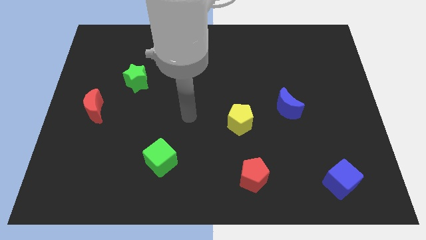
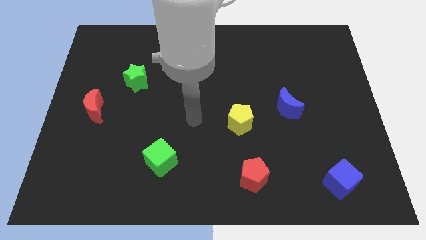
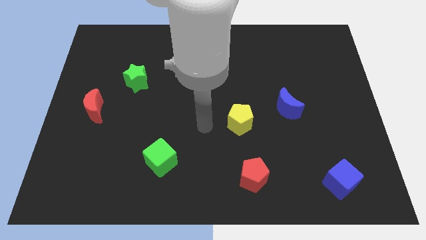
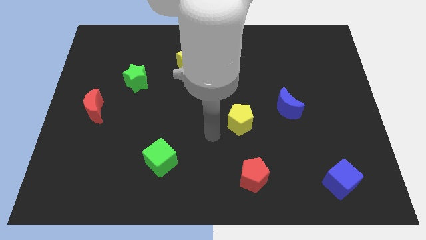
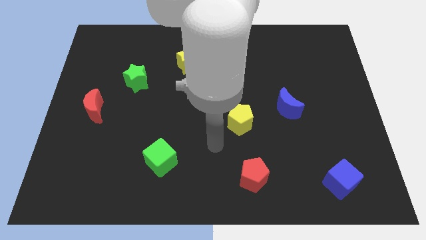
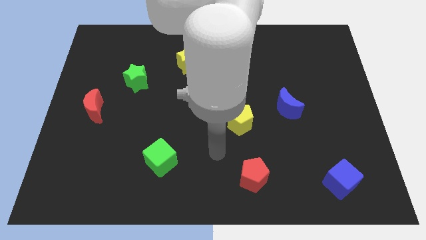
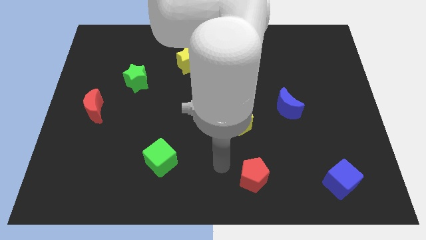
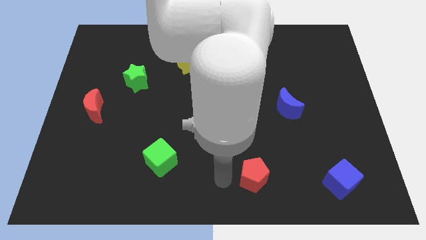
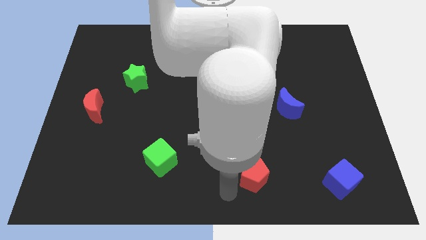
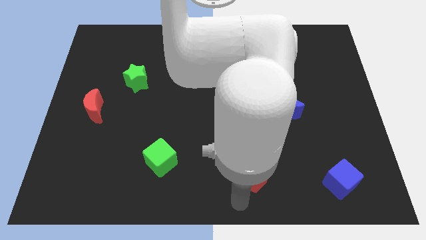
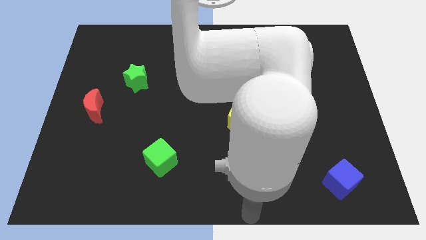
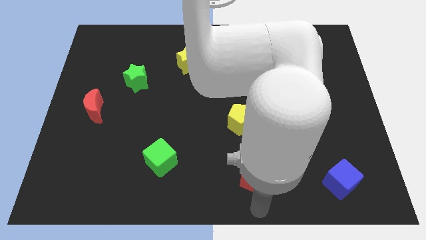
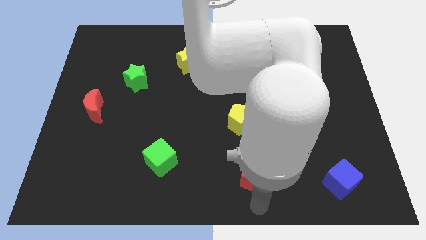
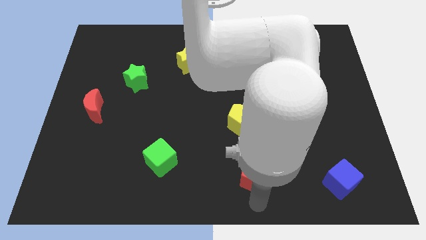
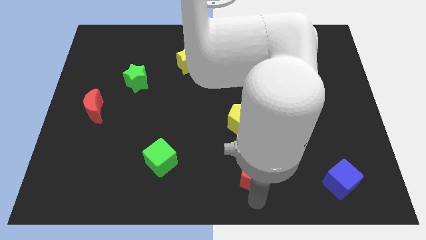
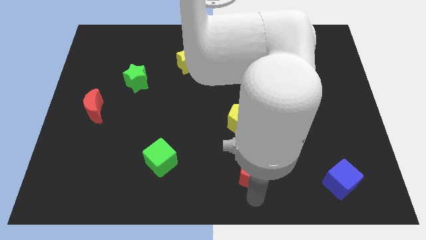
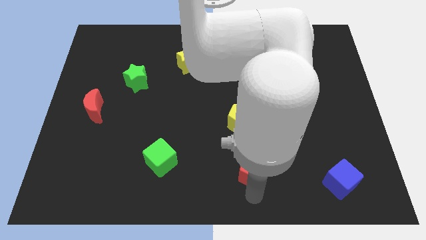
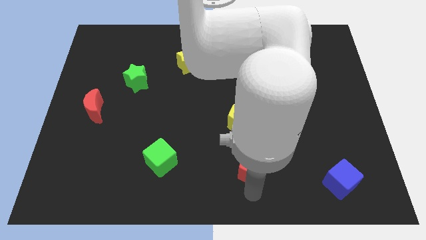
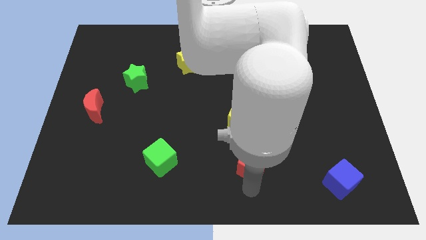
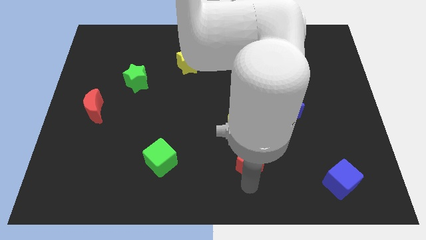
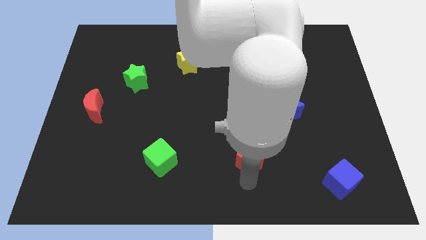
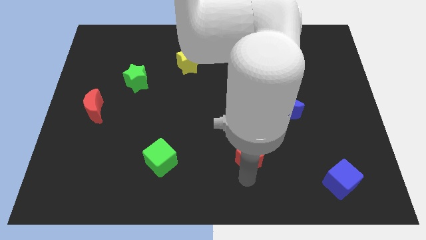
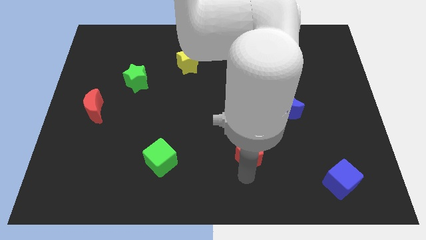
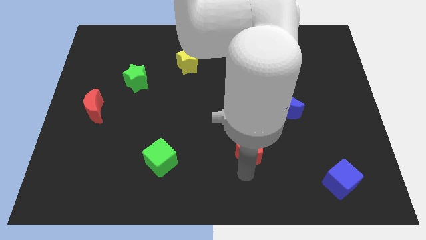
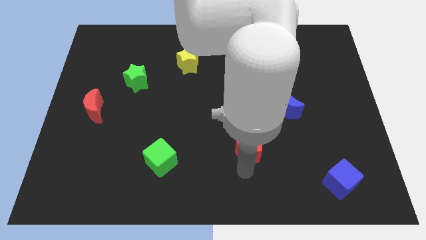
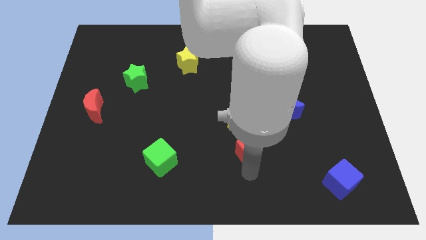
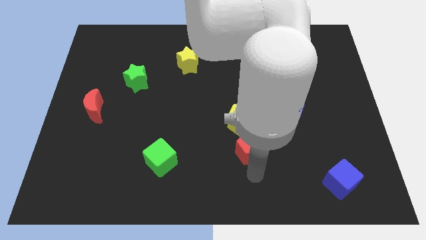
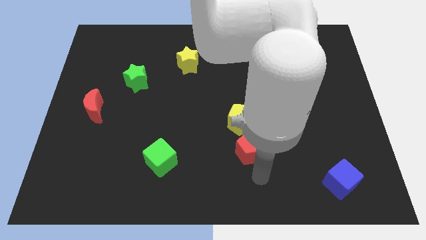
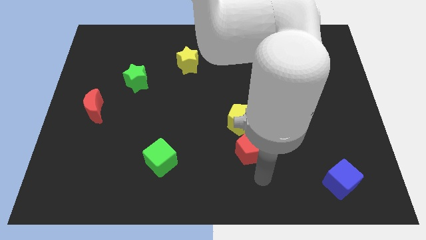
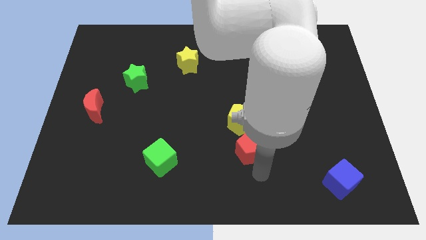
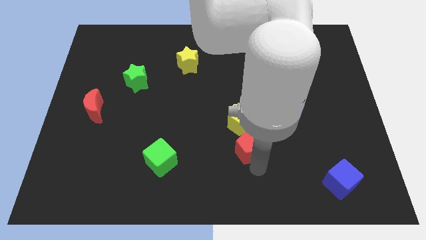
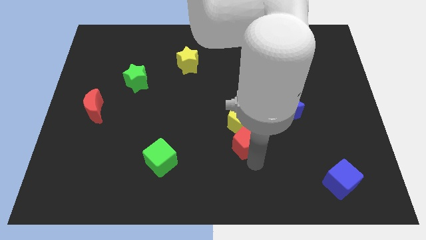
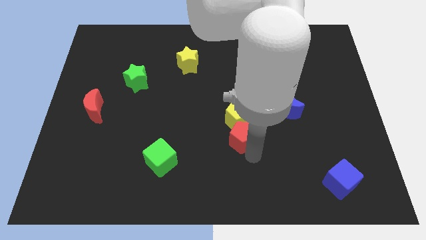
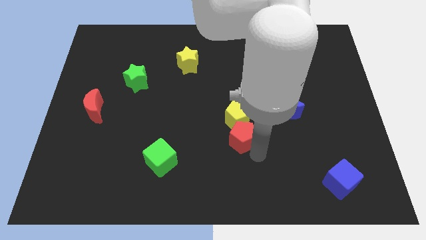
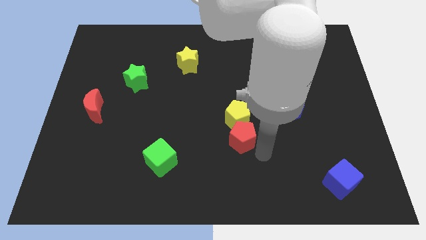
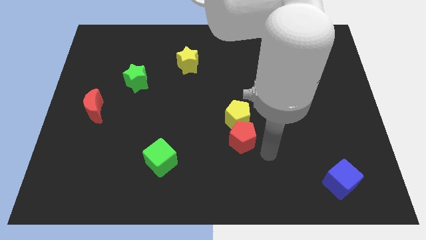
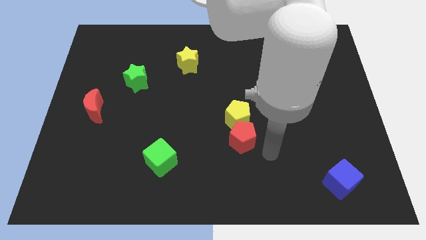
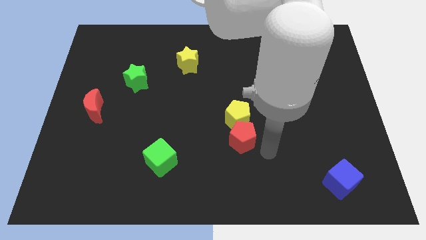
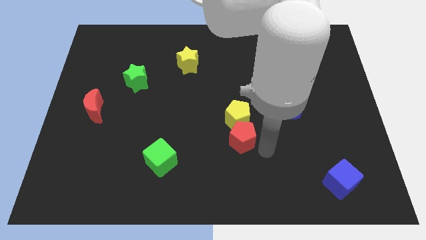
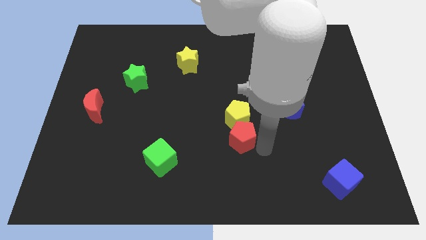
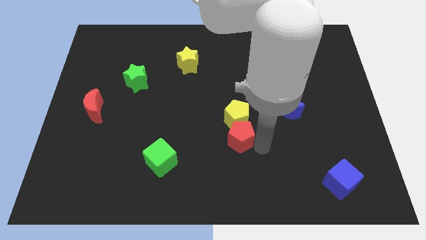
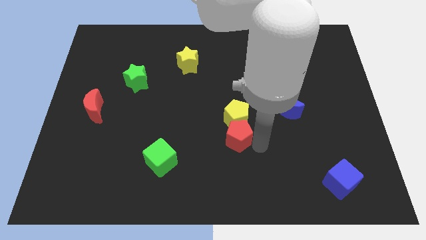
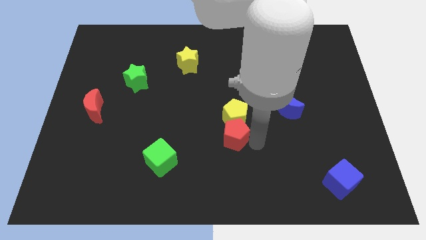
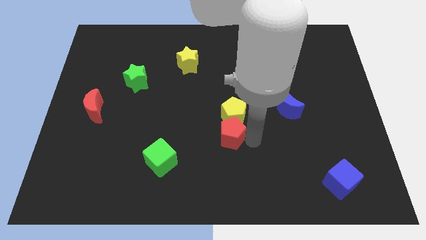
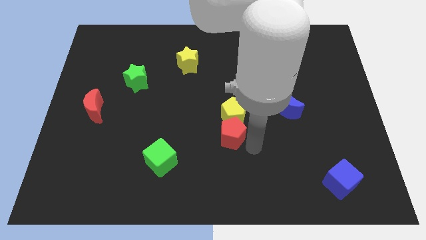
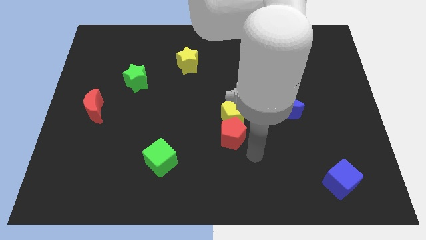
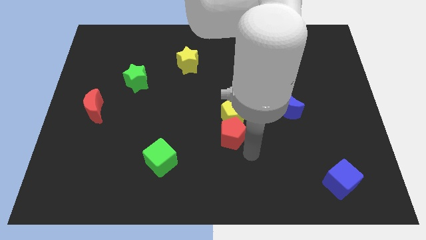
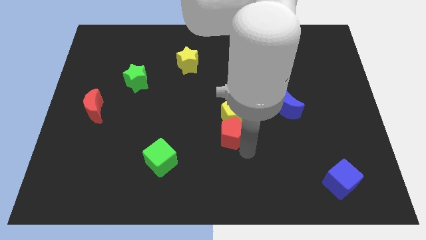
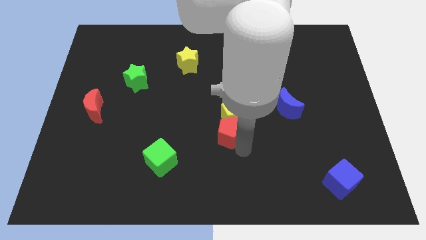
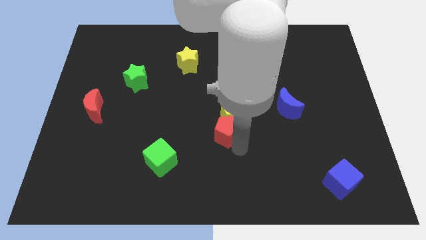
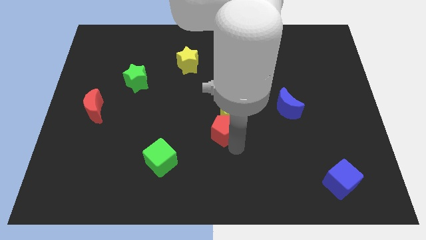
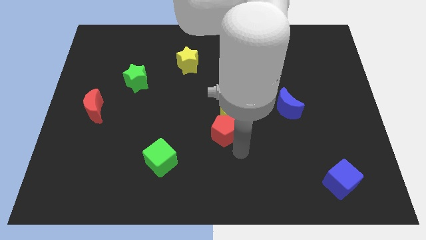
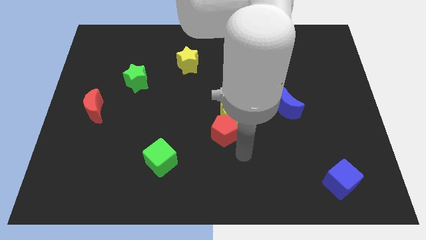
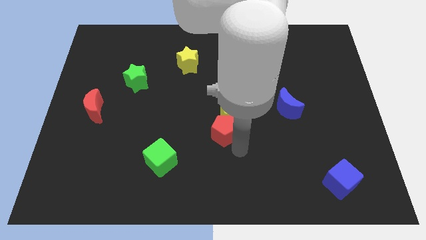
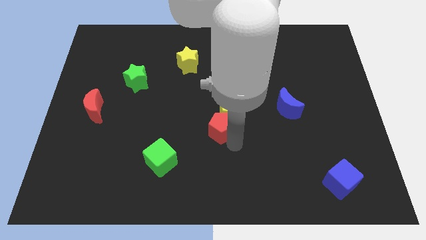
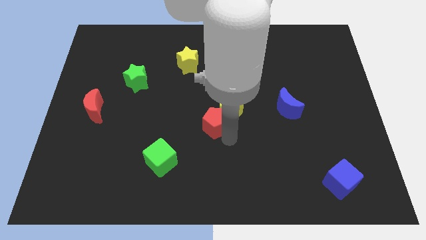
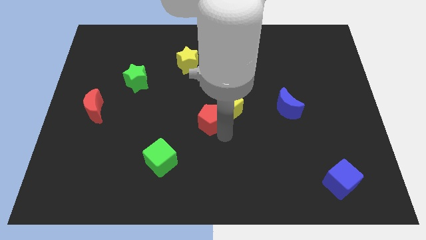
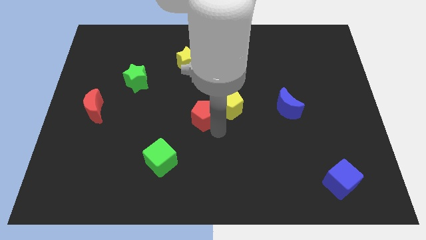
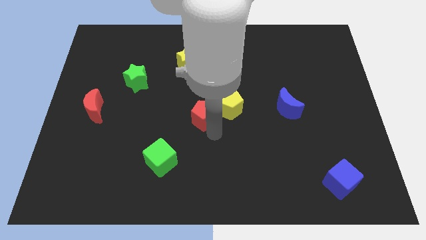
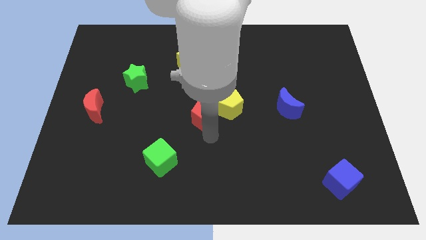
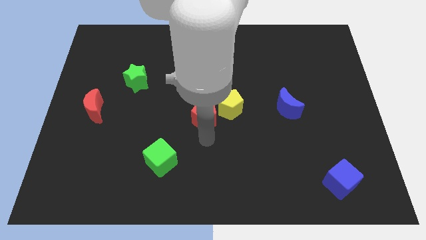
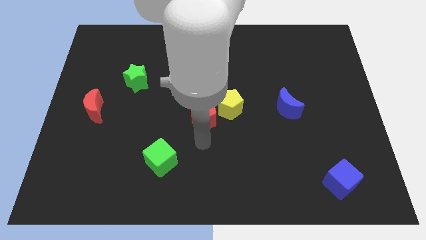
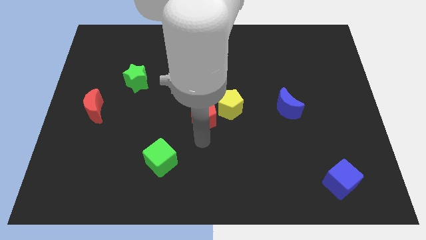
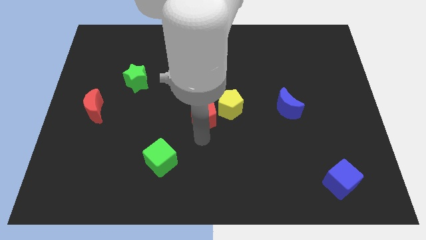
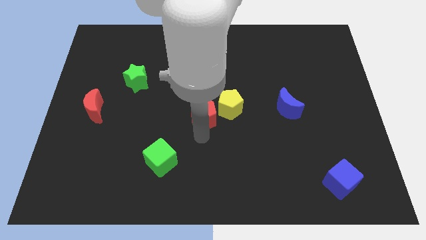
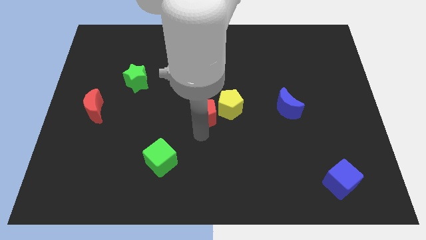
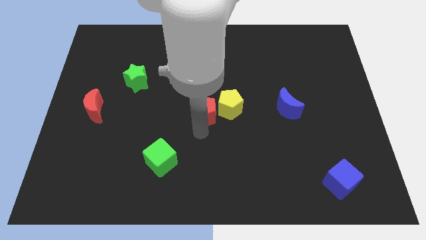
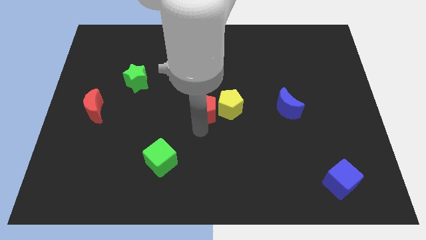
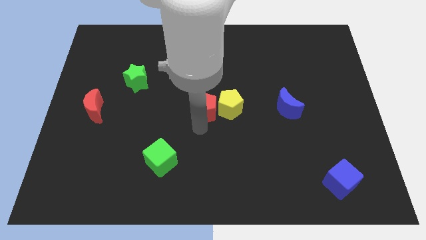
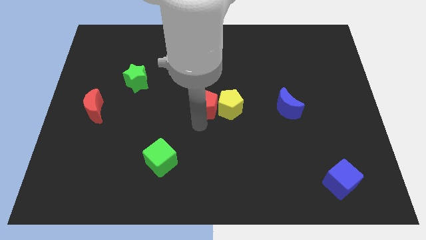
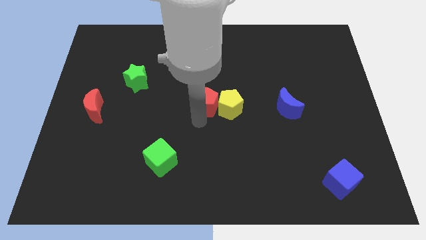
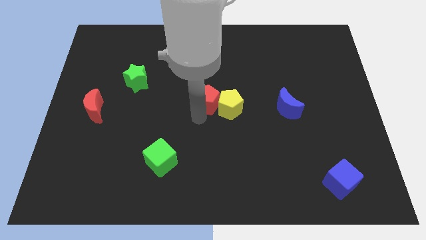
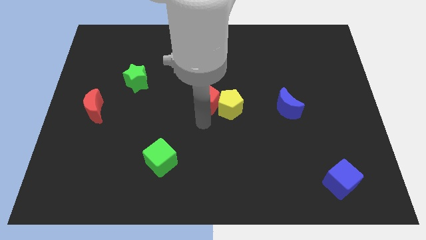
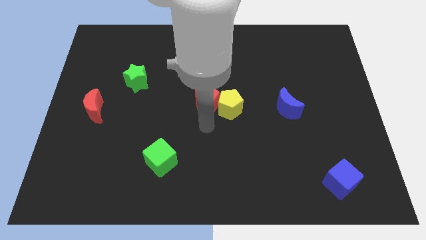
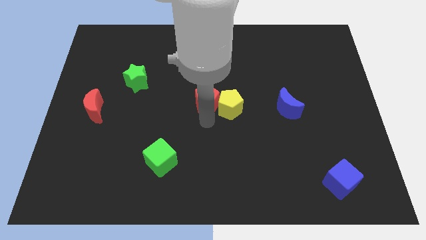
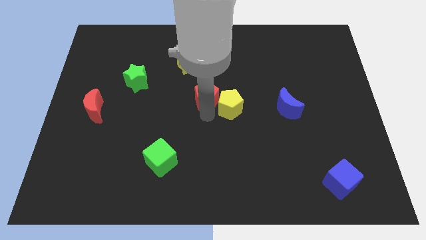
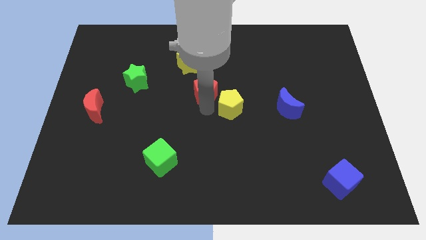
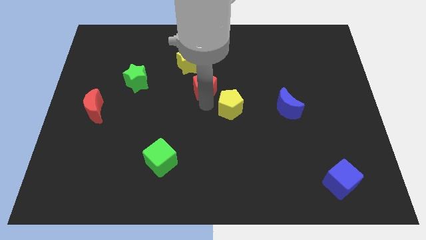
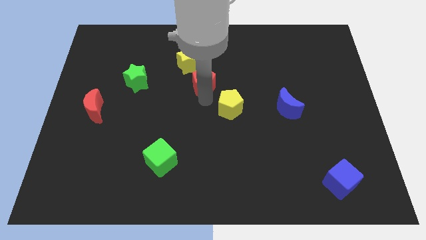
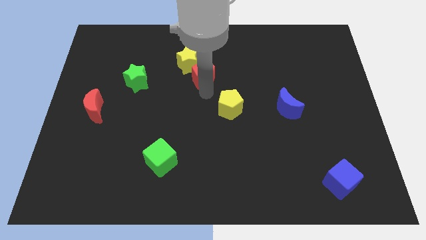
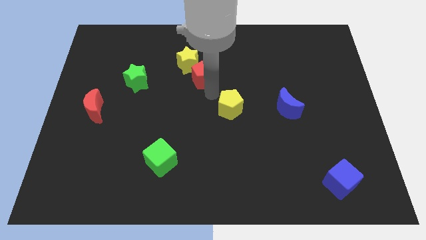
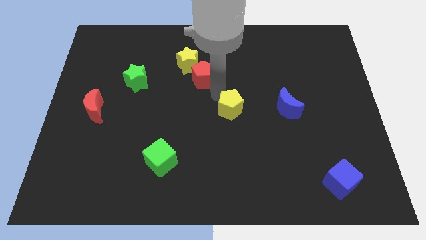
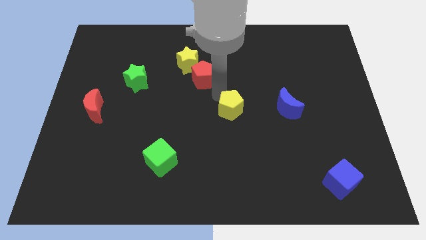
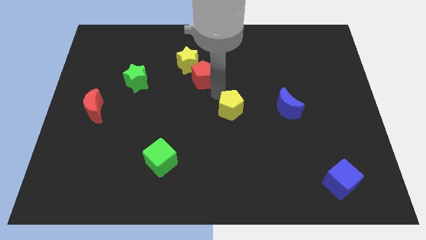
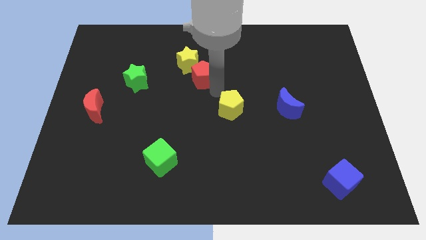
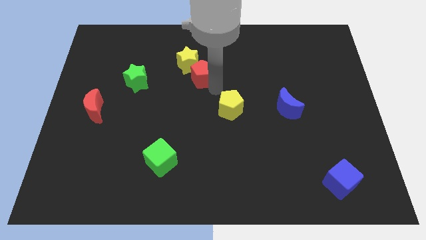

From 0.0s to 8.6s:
push the red pentagon to the yellow star
